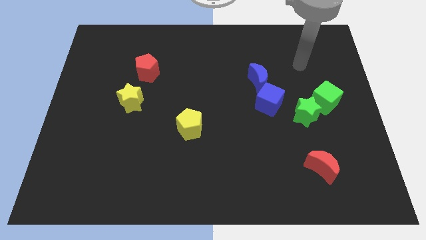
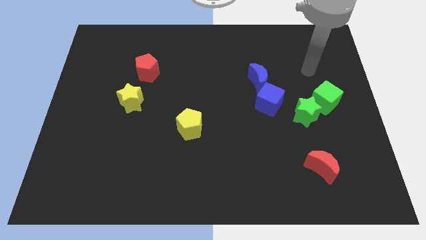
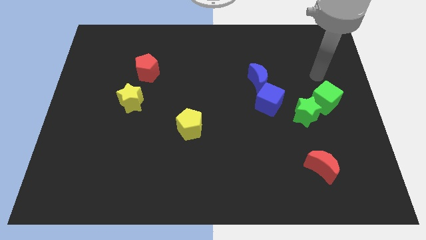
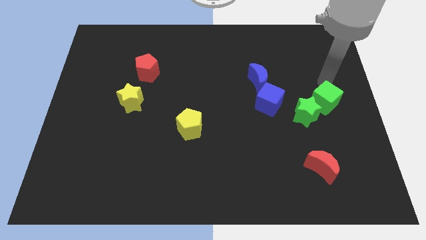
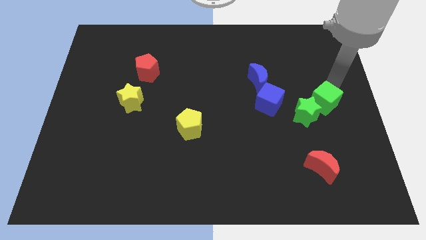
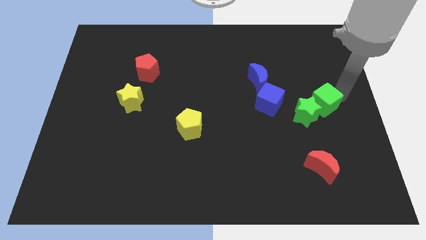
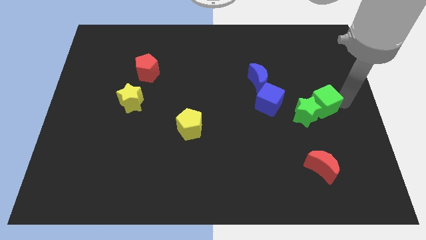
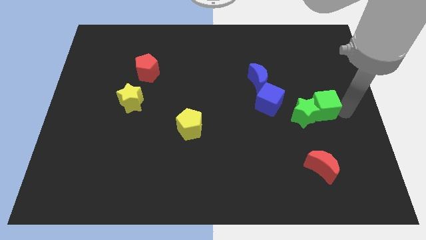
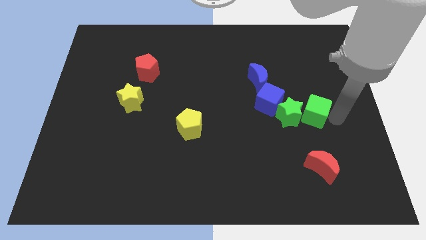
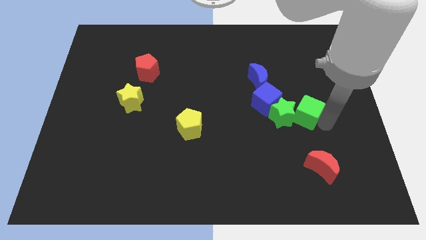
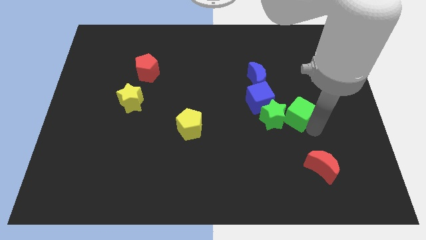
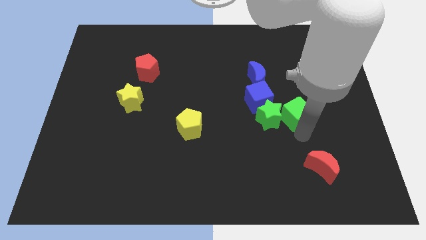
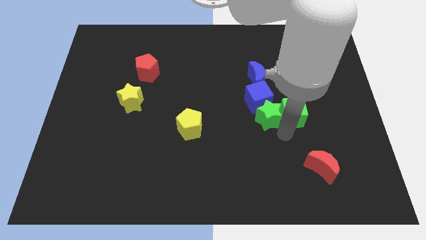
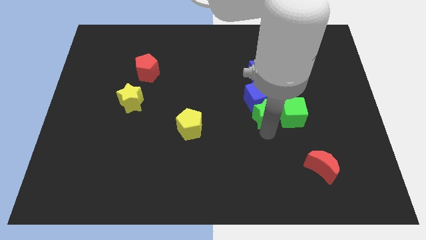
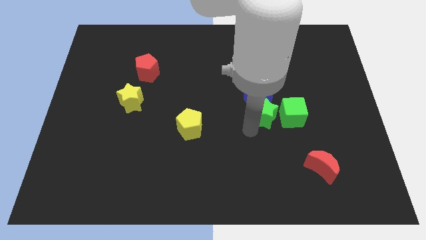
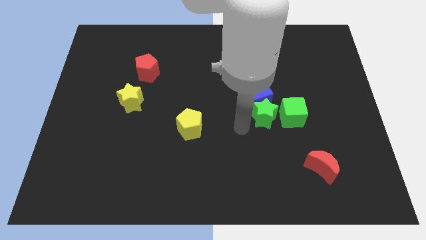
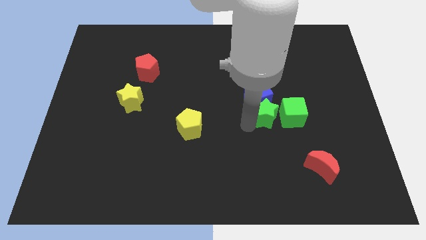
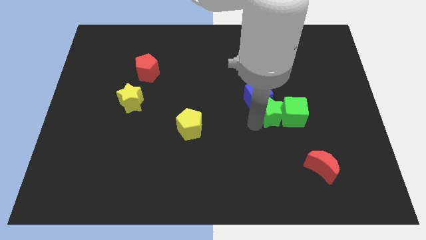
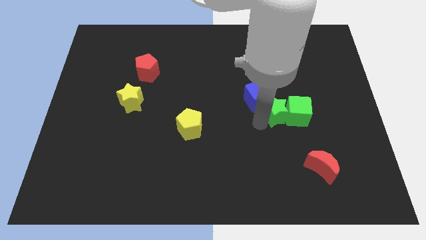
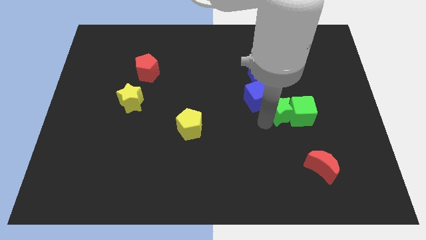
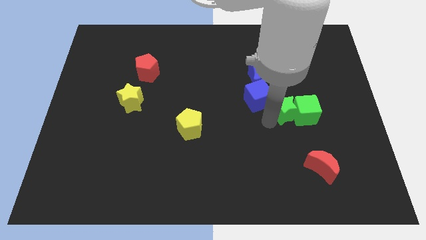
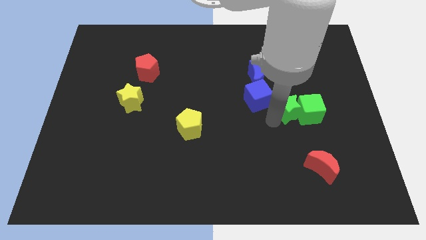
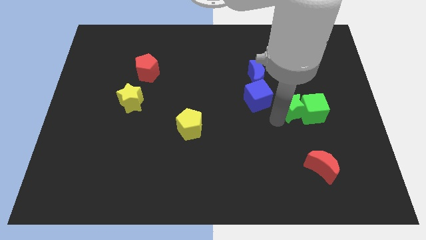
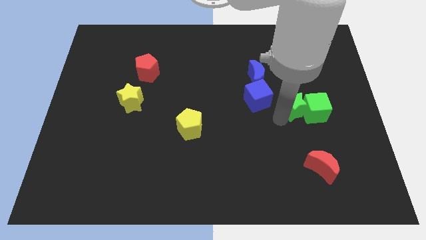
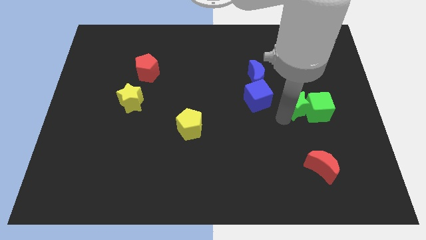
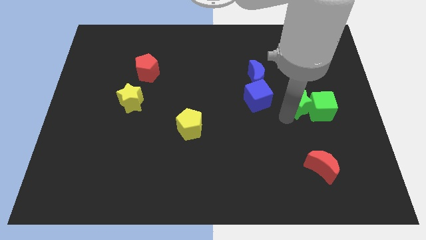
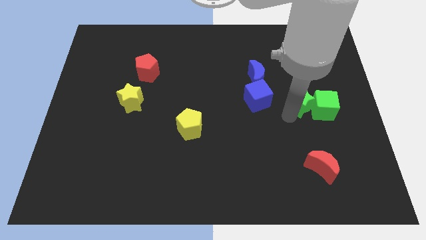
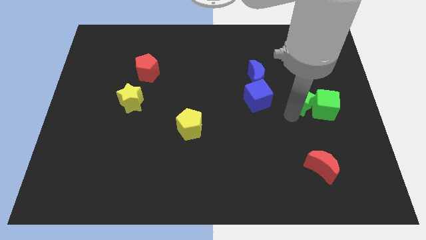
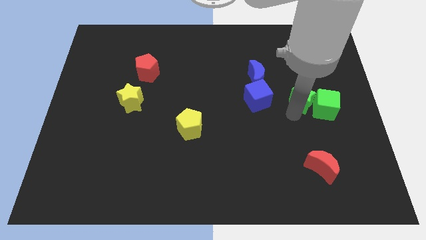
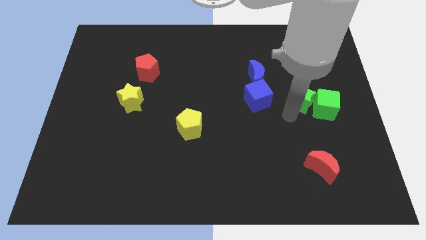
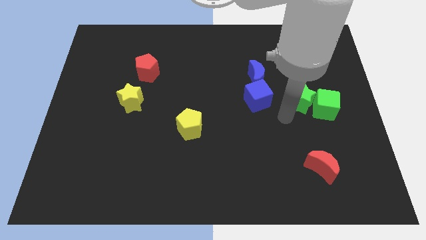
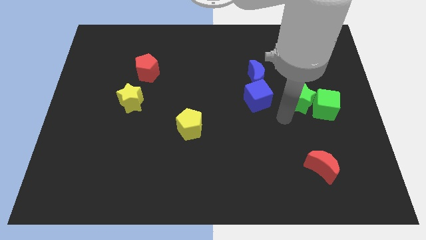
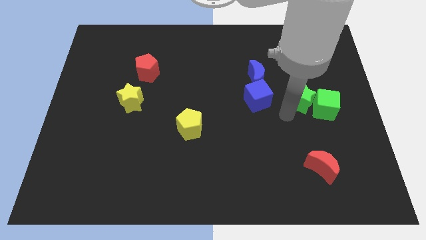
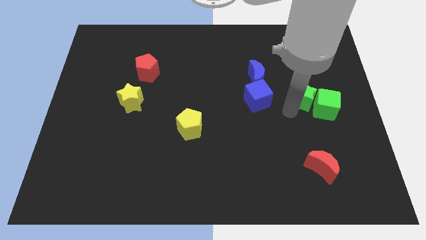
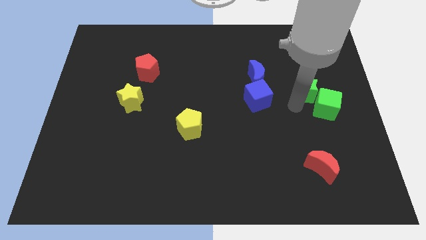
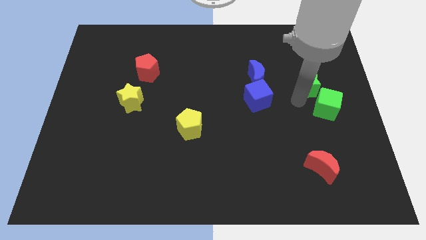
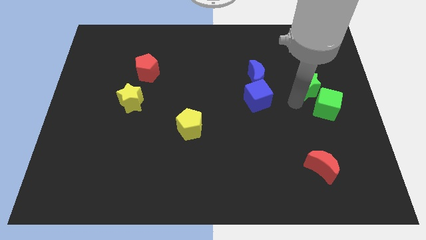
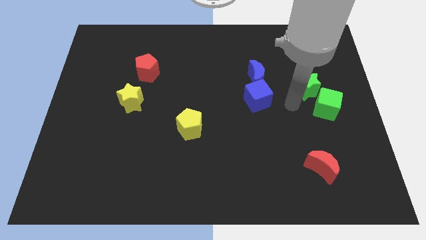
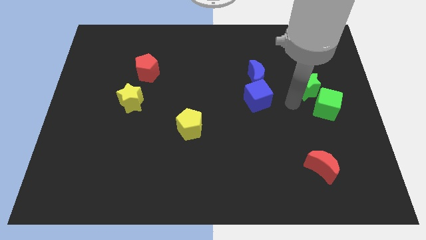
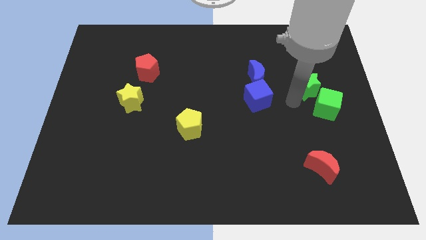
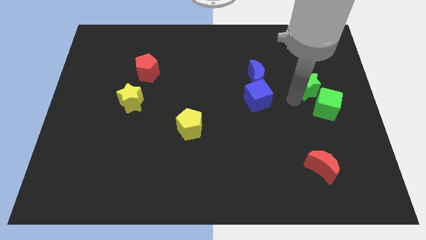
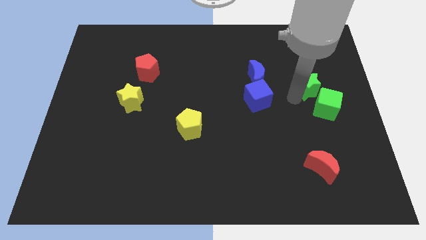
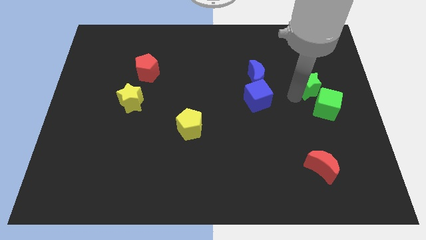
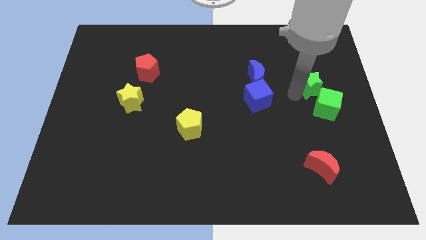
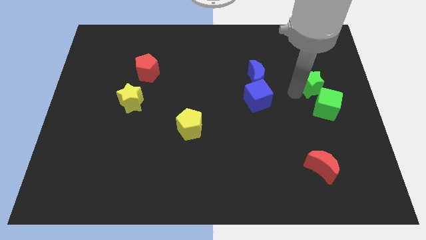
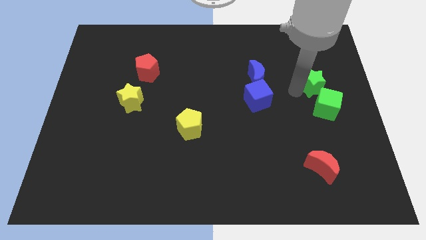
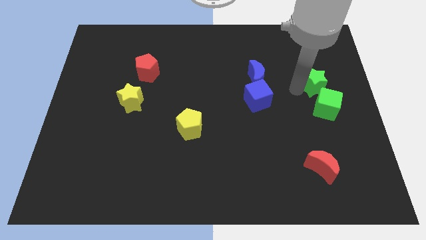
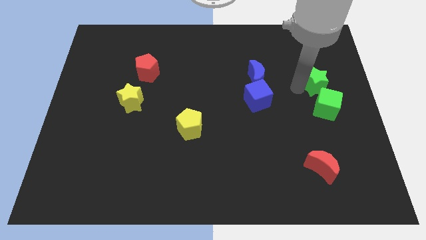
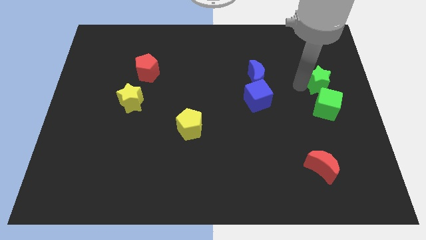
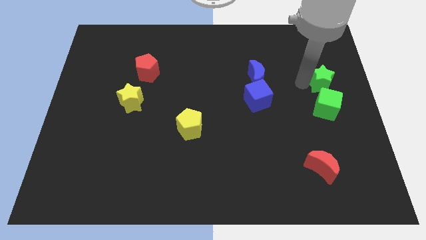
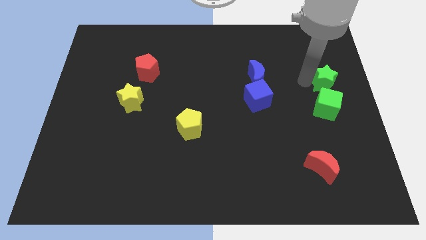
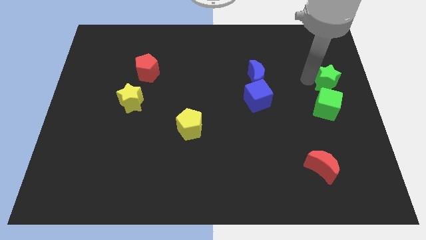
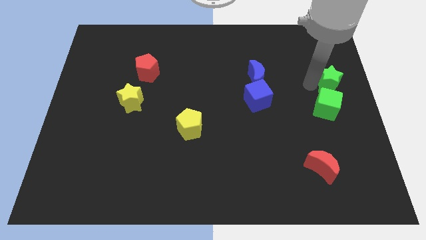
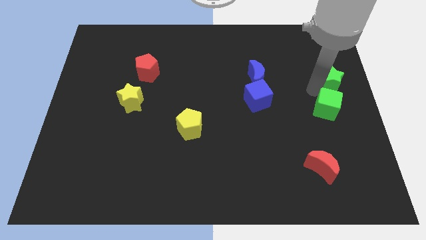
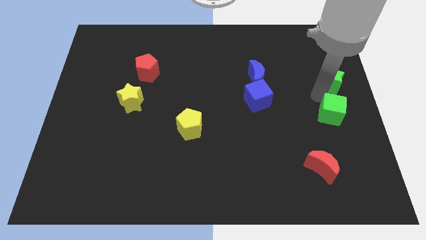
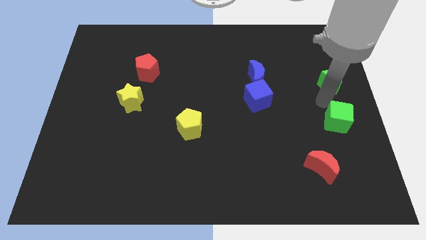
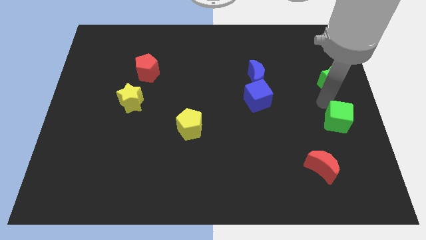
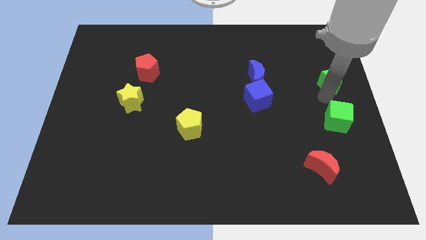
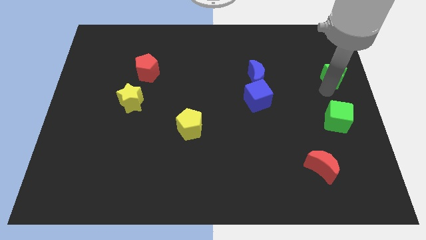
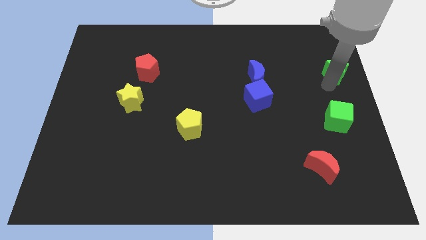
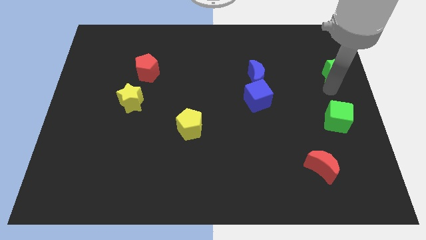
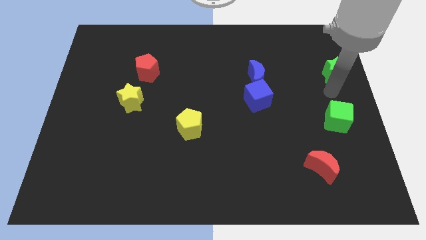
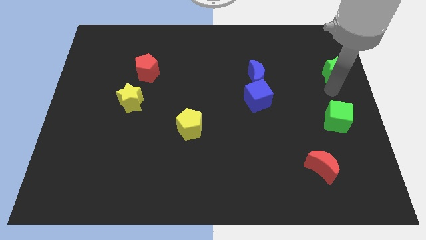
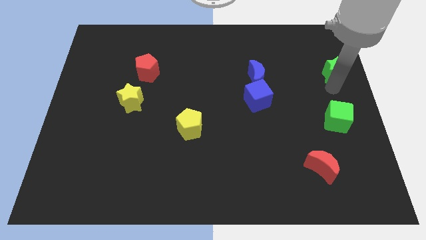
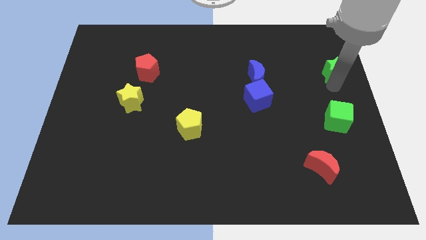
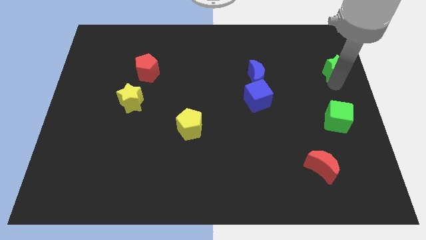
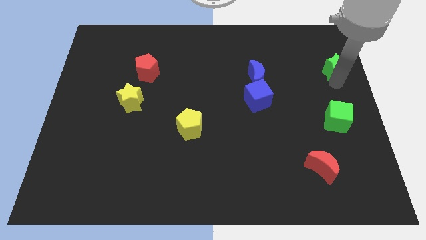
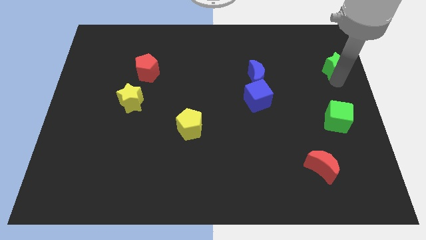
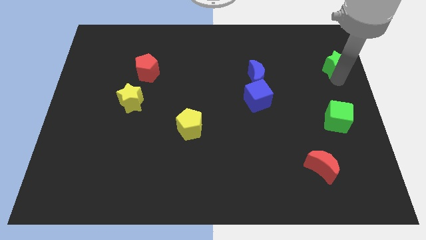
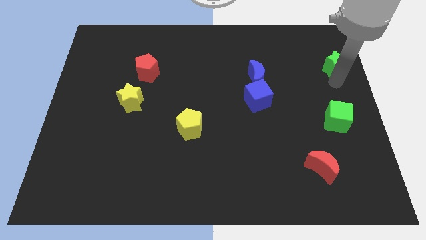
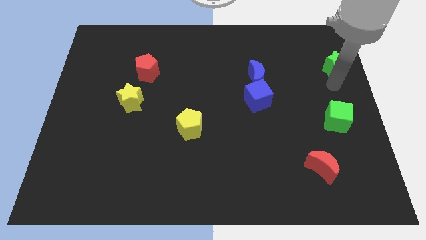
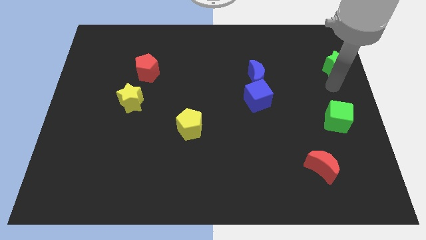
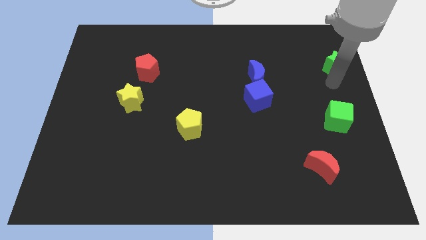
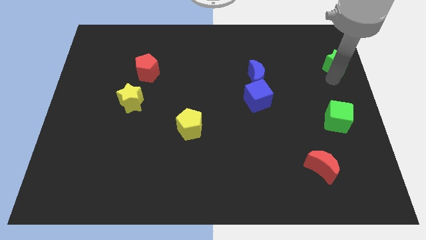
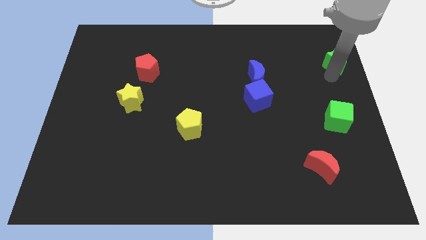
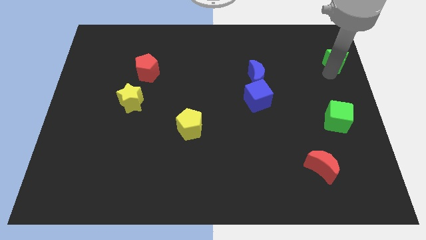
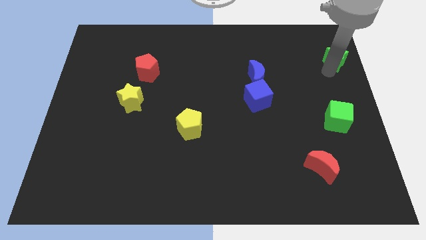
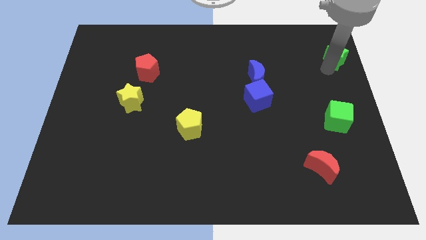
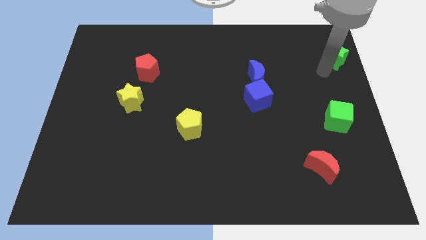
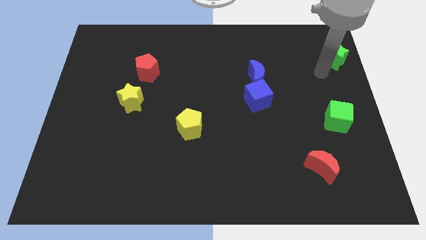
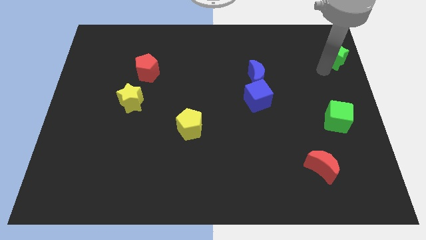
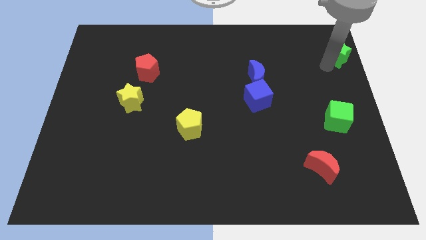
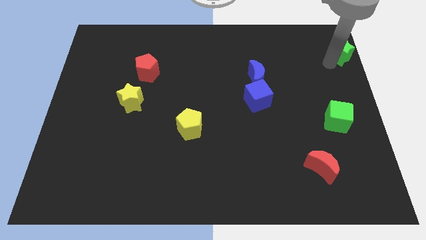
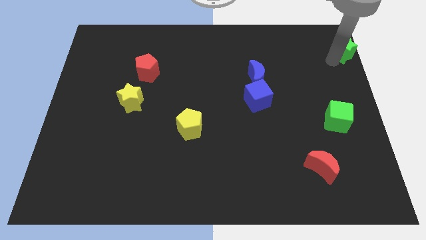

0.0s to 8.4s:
slide the green star to the upper right corner
